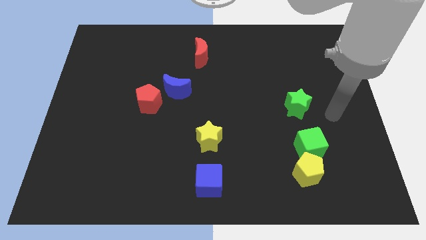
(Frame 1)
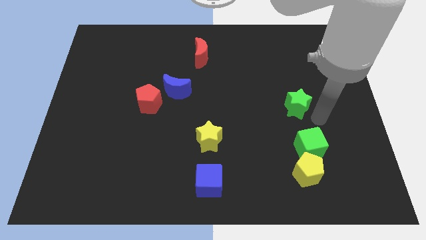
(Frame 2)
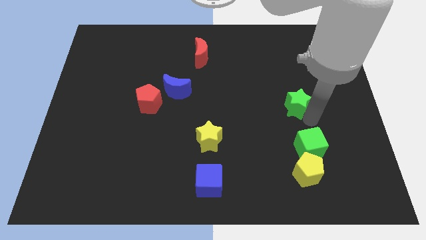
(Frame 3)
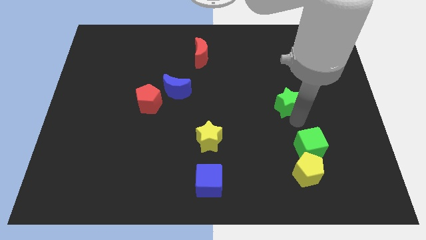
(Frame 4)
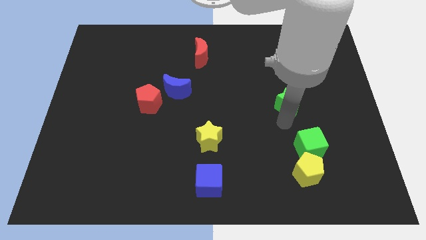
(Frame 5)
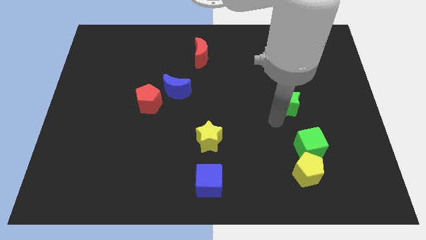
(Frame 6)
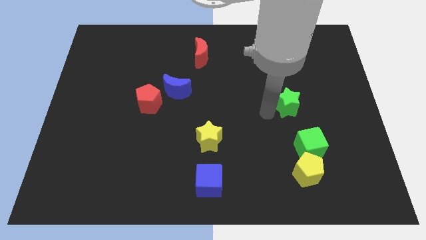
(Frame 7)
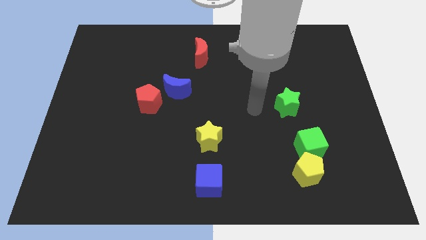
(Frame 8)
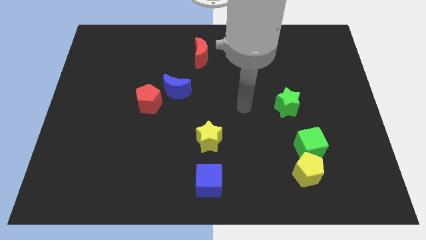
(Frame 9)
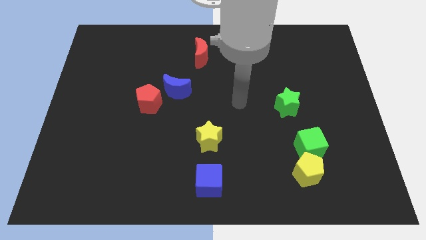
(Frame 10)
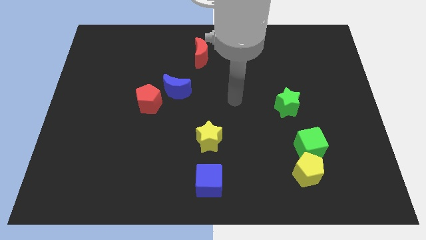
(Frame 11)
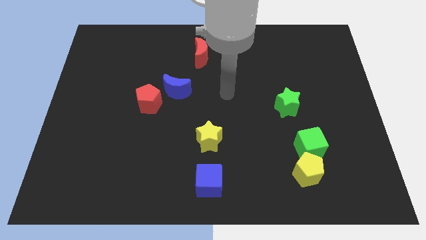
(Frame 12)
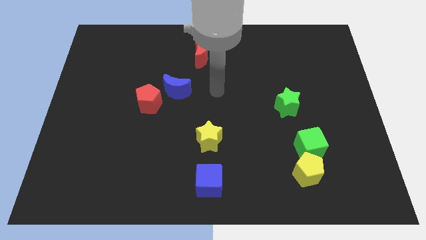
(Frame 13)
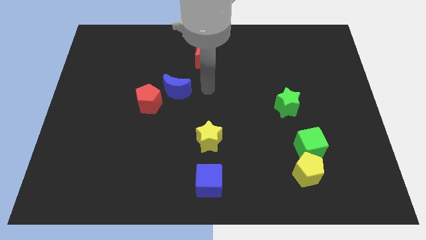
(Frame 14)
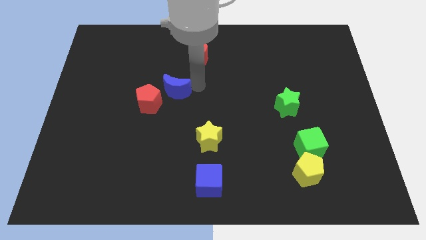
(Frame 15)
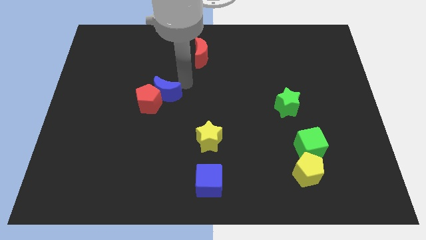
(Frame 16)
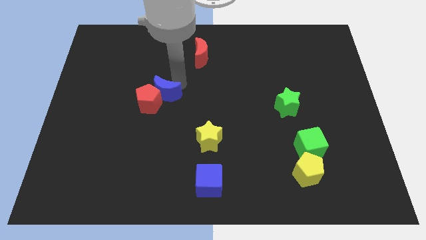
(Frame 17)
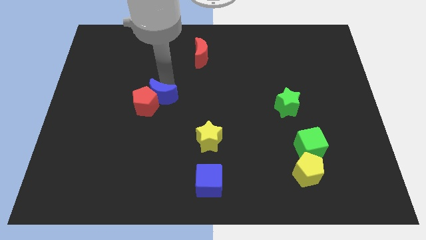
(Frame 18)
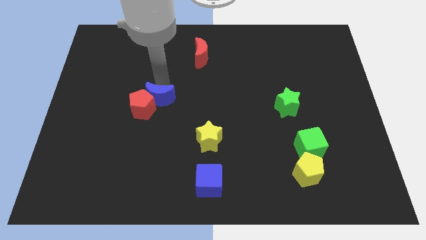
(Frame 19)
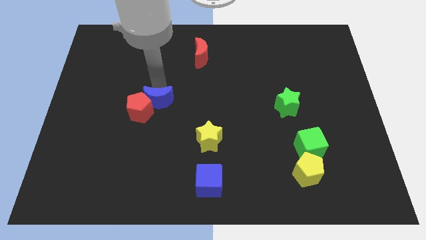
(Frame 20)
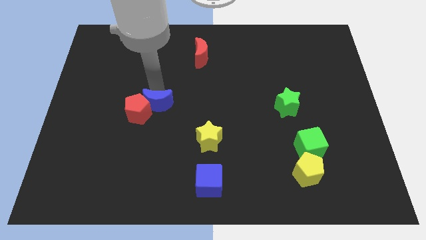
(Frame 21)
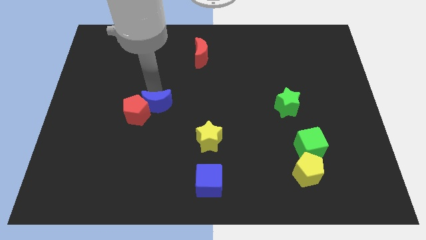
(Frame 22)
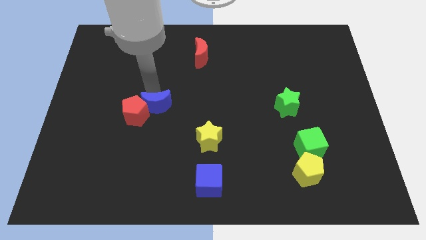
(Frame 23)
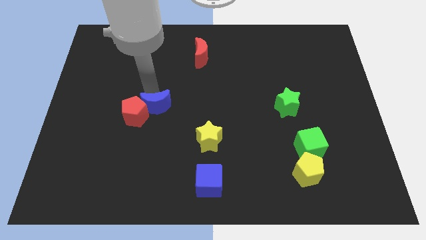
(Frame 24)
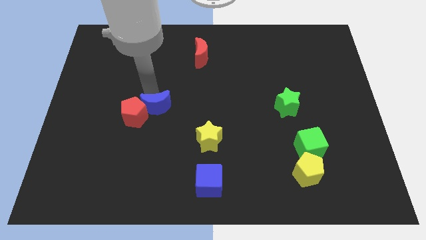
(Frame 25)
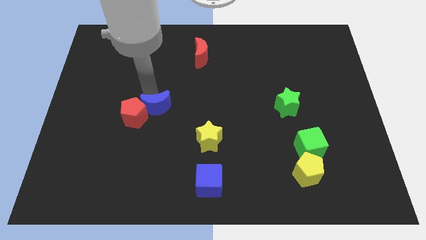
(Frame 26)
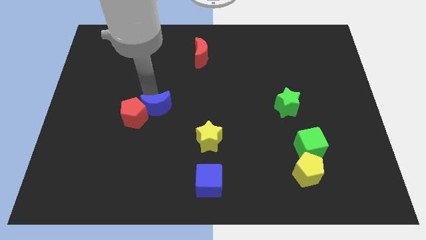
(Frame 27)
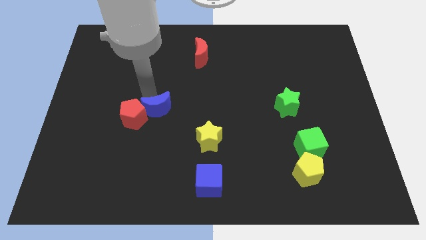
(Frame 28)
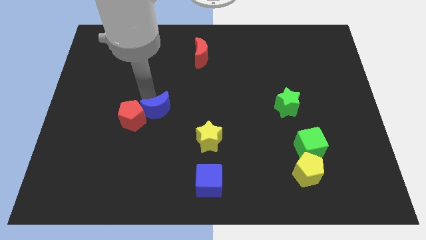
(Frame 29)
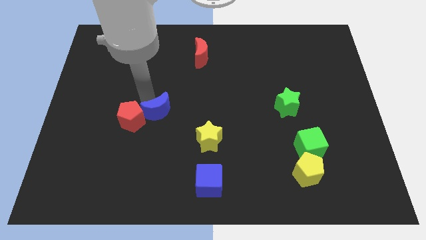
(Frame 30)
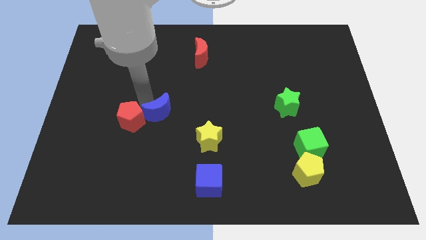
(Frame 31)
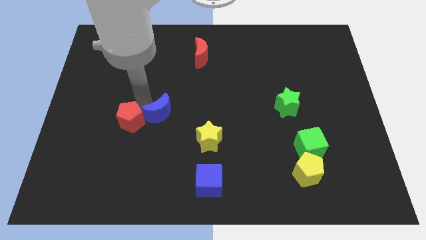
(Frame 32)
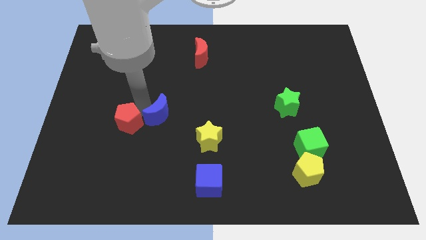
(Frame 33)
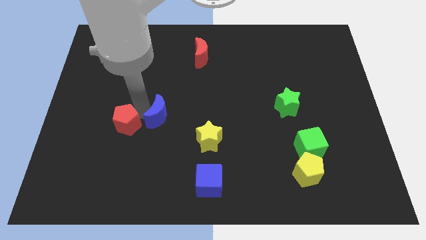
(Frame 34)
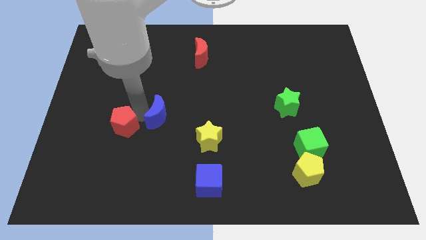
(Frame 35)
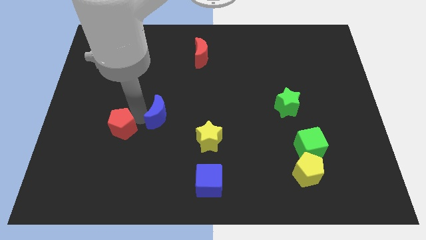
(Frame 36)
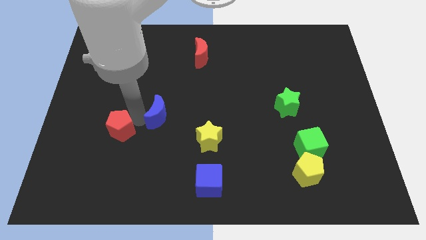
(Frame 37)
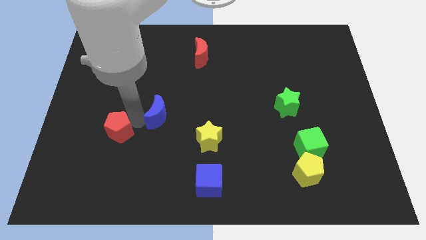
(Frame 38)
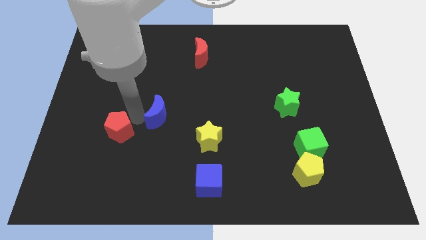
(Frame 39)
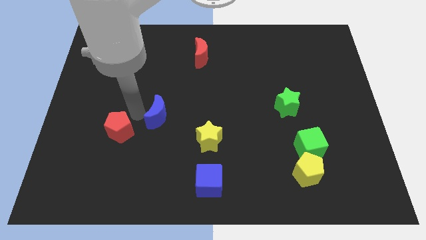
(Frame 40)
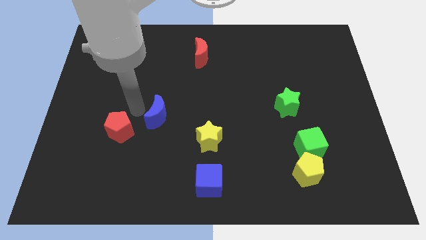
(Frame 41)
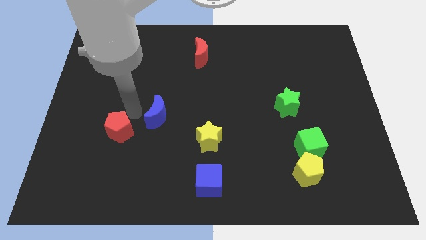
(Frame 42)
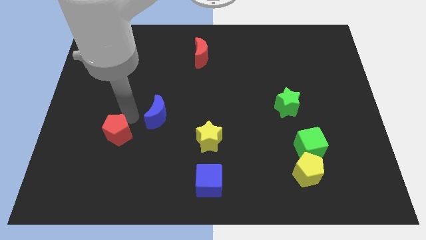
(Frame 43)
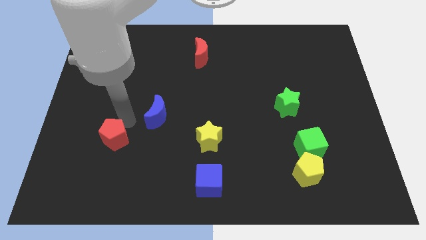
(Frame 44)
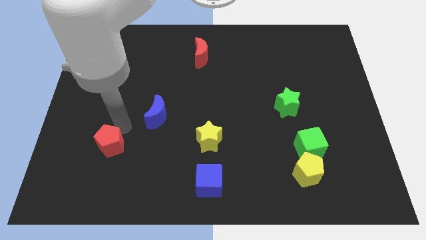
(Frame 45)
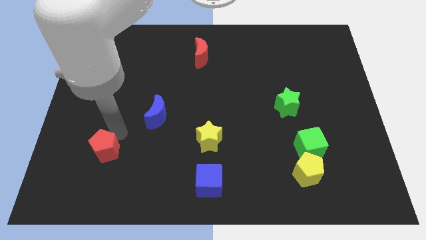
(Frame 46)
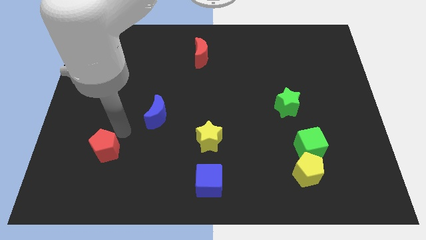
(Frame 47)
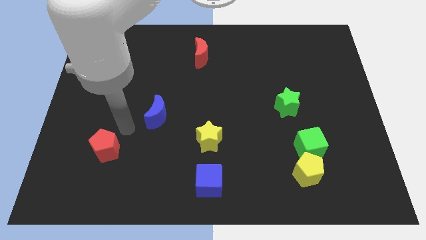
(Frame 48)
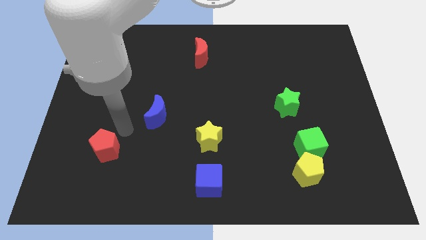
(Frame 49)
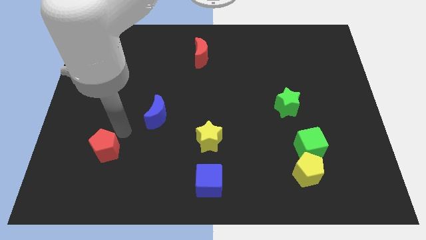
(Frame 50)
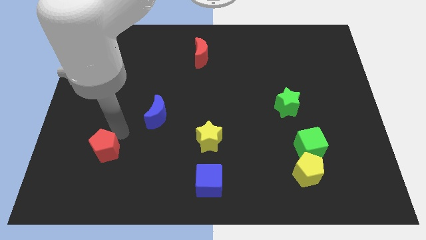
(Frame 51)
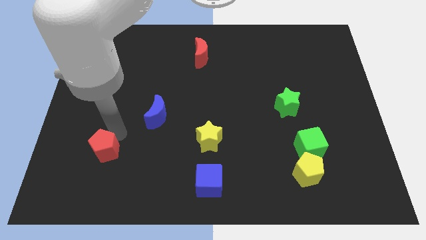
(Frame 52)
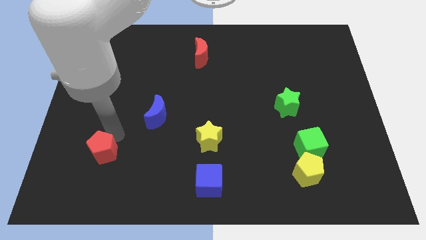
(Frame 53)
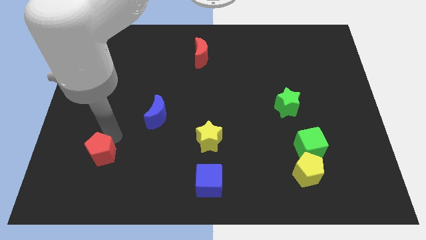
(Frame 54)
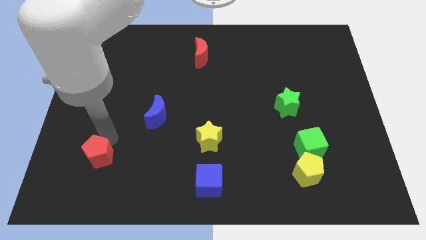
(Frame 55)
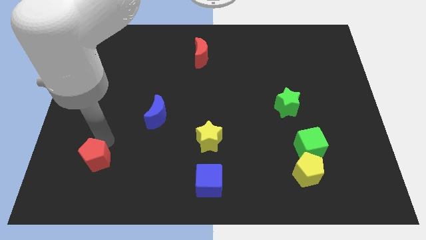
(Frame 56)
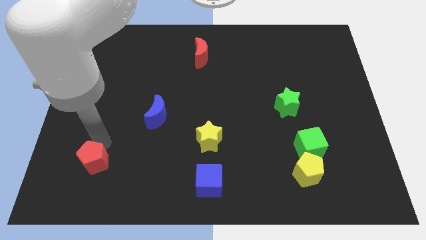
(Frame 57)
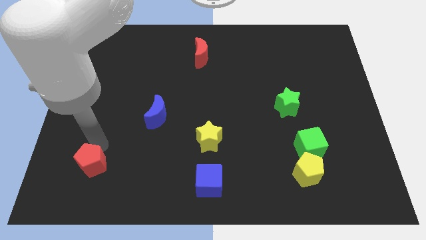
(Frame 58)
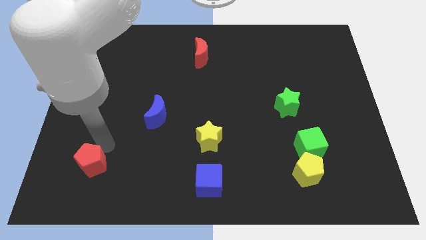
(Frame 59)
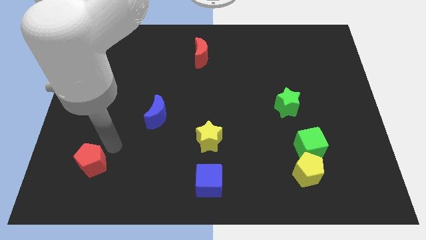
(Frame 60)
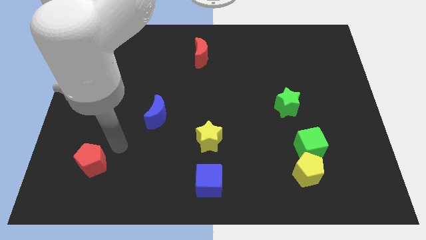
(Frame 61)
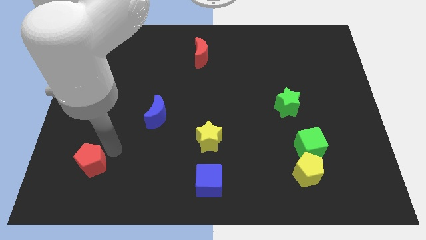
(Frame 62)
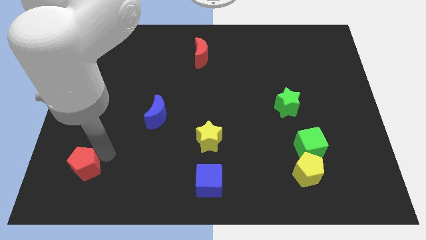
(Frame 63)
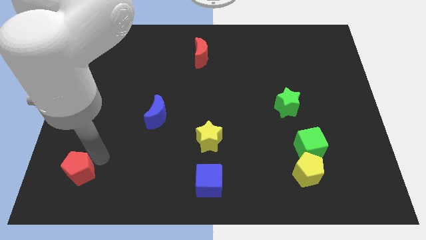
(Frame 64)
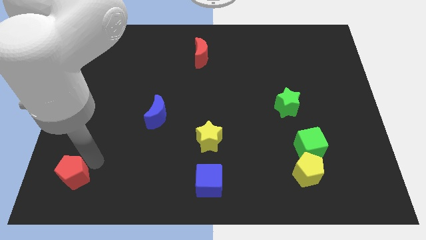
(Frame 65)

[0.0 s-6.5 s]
put the red pentagon to the bottom left of the board

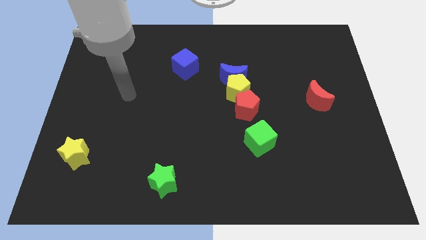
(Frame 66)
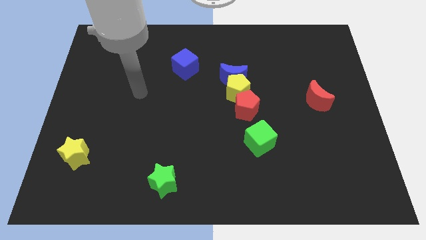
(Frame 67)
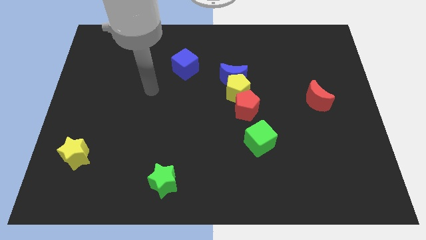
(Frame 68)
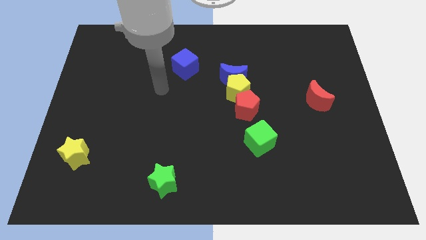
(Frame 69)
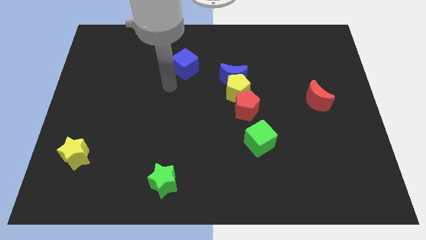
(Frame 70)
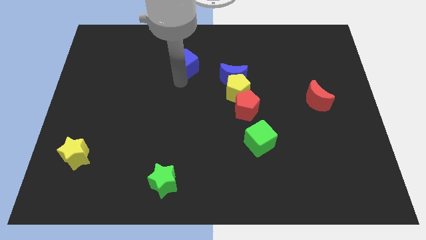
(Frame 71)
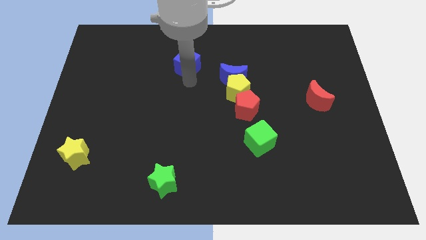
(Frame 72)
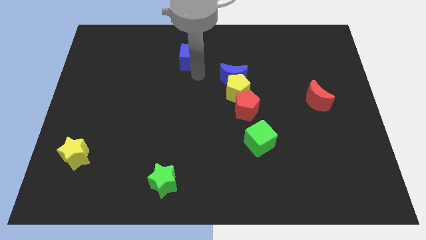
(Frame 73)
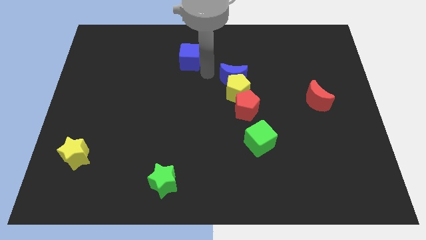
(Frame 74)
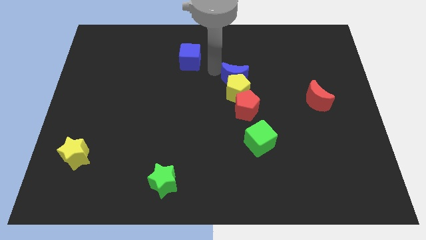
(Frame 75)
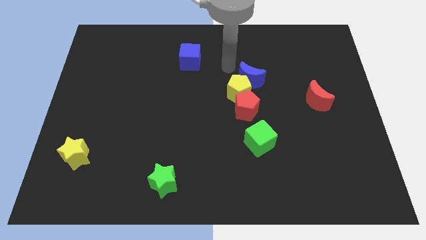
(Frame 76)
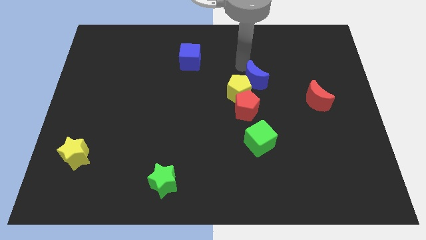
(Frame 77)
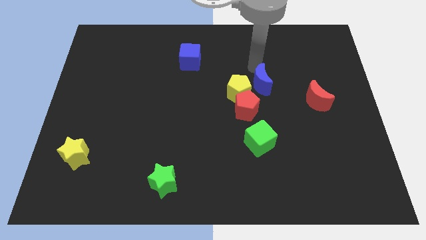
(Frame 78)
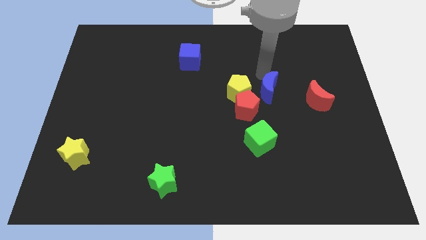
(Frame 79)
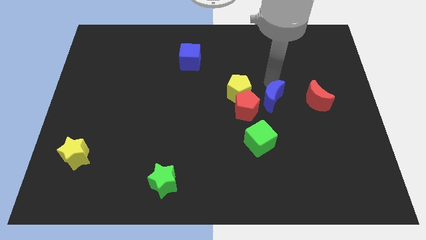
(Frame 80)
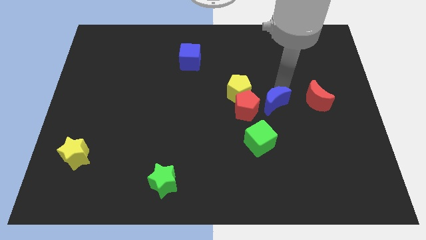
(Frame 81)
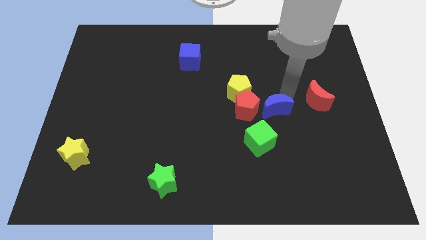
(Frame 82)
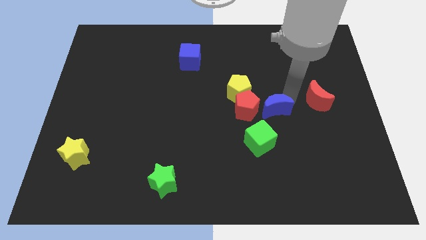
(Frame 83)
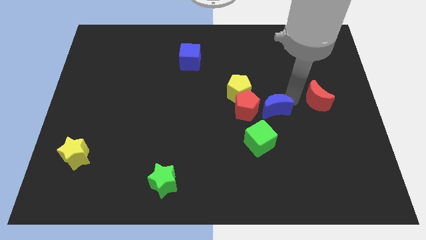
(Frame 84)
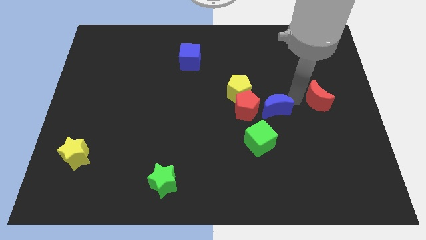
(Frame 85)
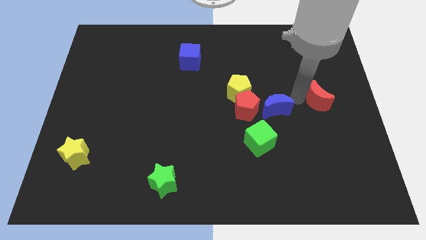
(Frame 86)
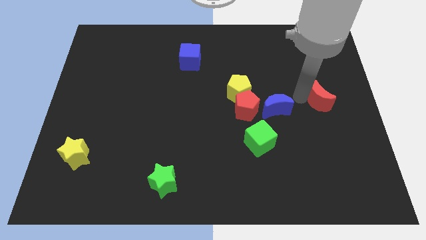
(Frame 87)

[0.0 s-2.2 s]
put the red moon to the right side of the board
